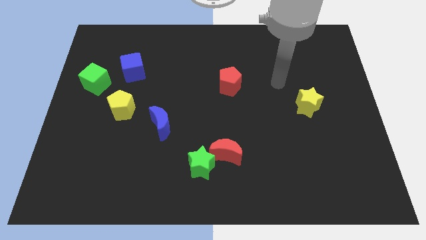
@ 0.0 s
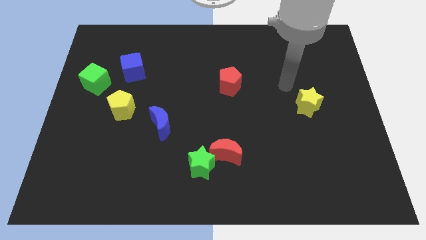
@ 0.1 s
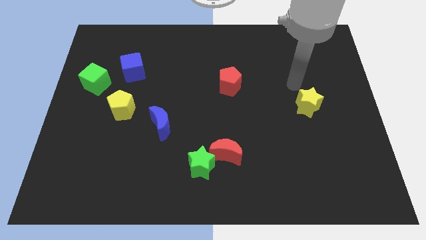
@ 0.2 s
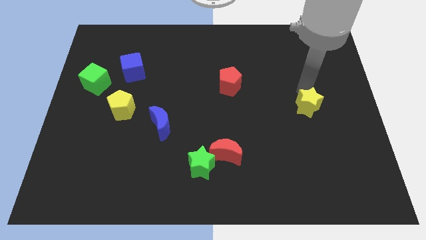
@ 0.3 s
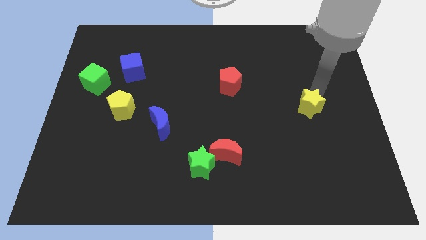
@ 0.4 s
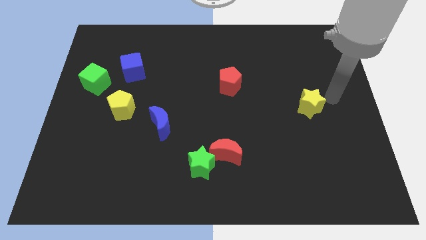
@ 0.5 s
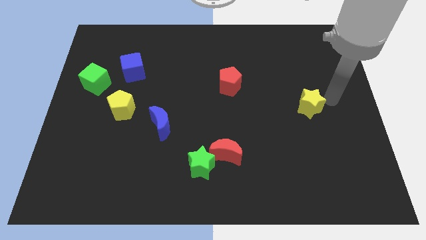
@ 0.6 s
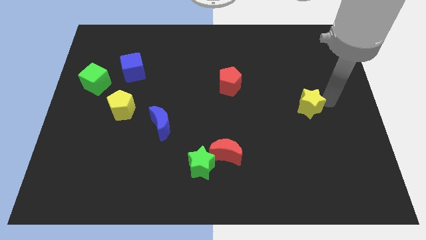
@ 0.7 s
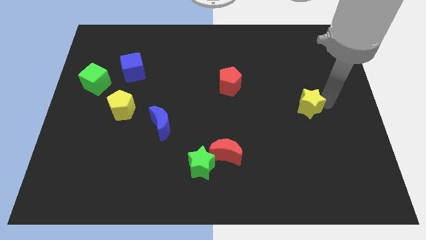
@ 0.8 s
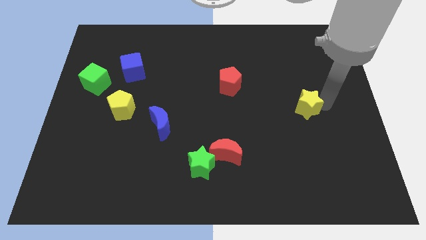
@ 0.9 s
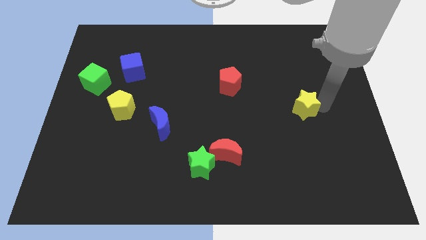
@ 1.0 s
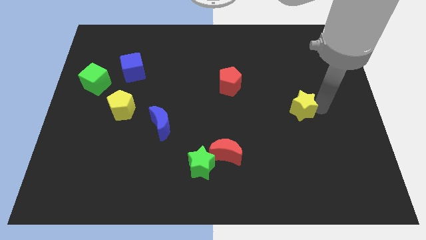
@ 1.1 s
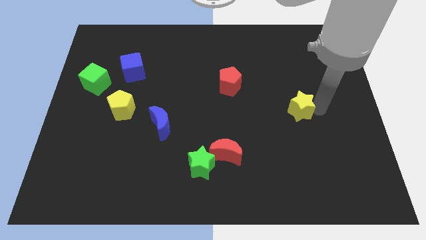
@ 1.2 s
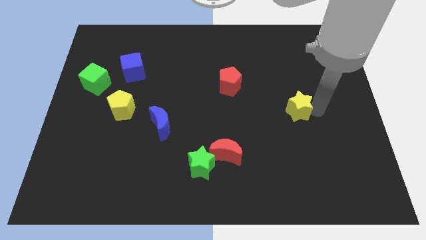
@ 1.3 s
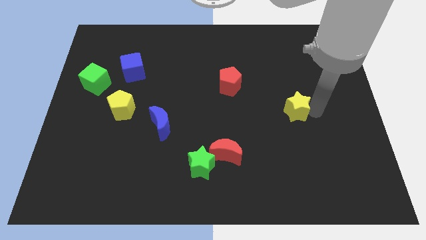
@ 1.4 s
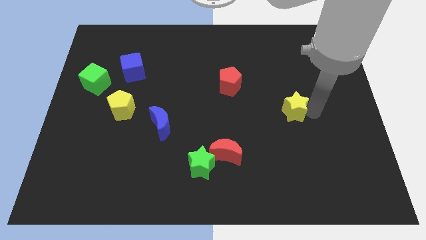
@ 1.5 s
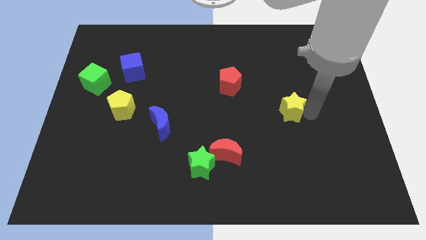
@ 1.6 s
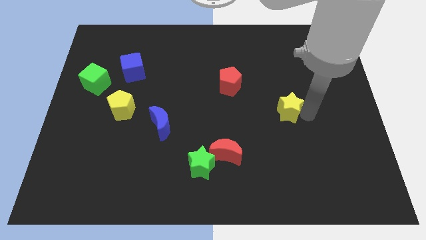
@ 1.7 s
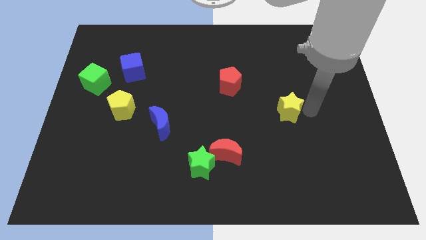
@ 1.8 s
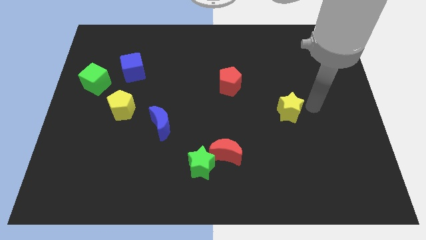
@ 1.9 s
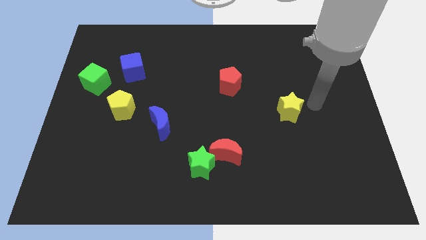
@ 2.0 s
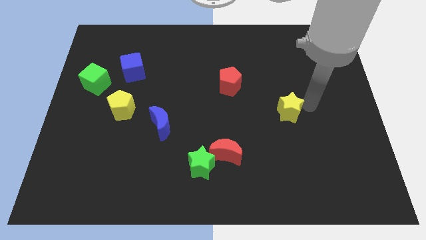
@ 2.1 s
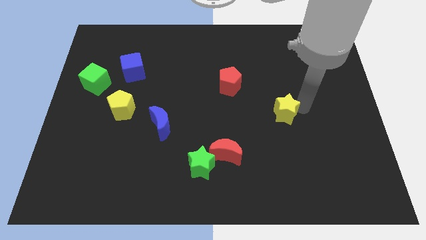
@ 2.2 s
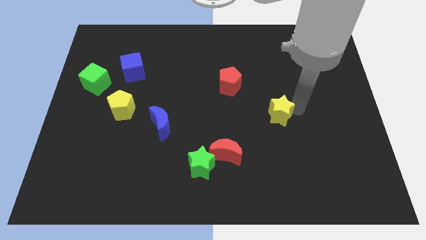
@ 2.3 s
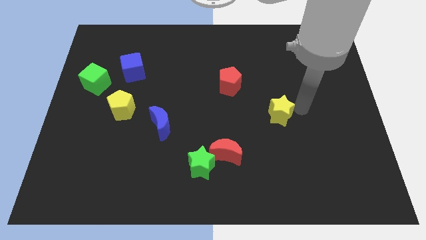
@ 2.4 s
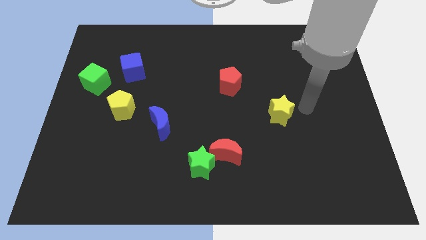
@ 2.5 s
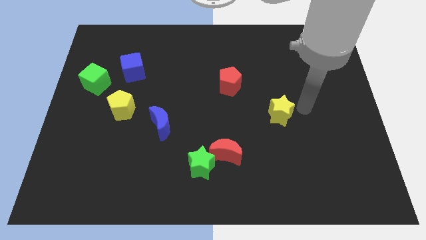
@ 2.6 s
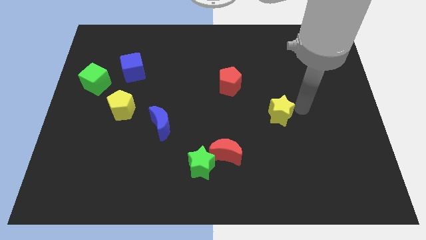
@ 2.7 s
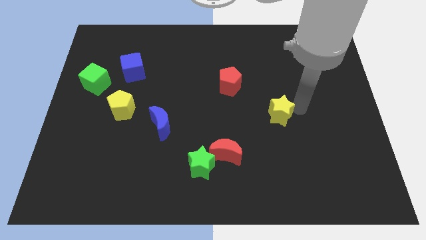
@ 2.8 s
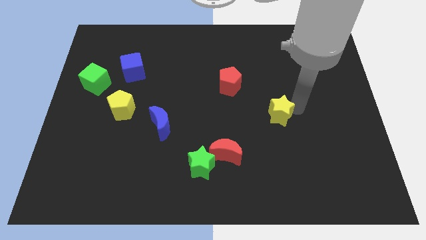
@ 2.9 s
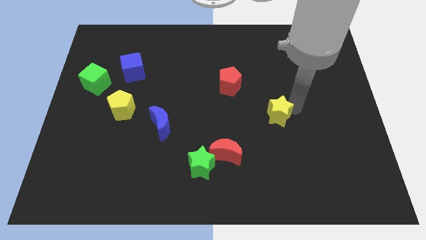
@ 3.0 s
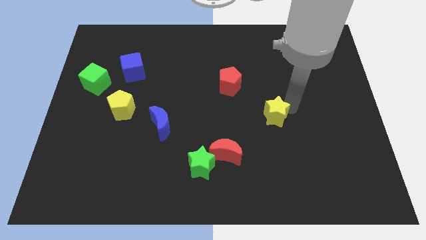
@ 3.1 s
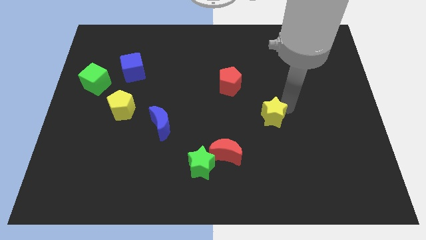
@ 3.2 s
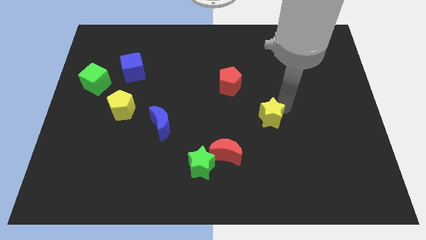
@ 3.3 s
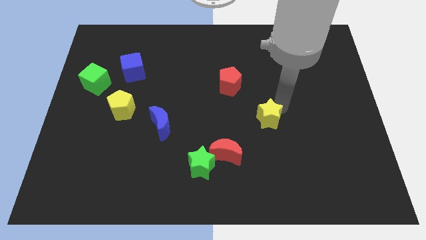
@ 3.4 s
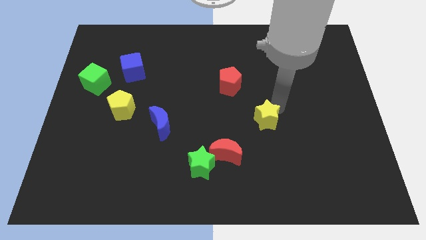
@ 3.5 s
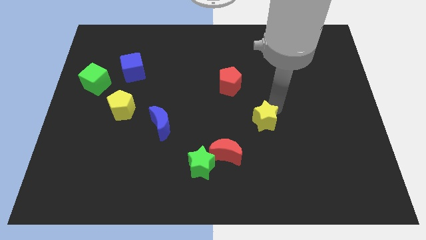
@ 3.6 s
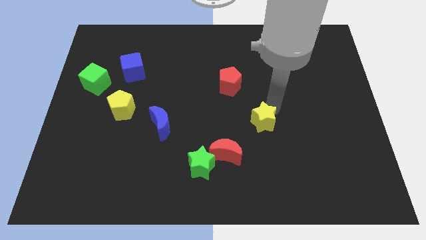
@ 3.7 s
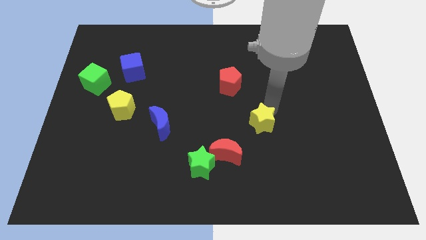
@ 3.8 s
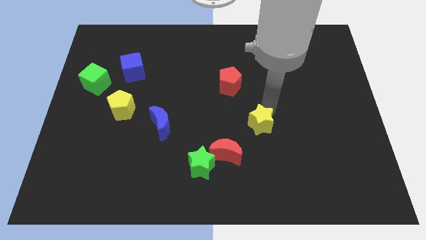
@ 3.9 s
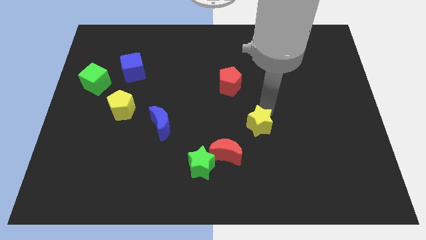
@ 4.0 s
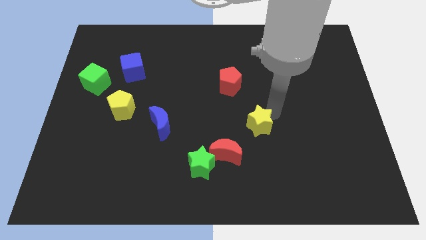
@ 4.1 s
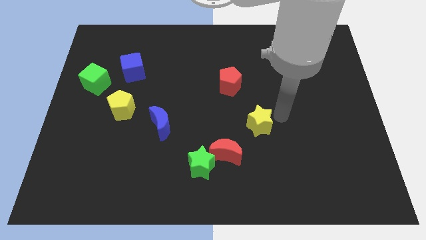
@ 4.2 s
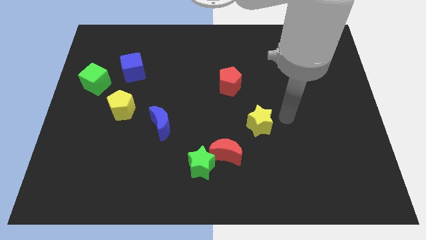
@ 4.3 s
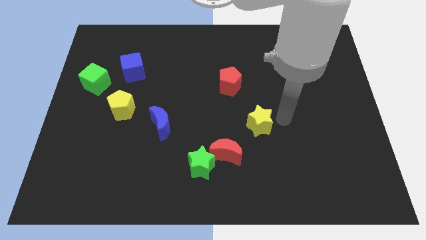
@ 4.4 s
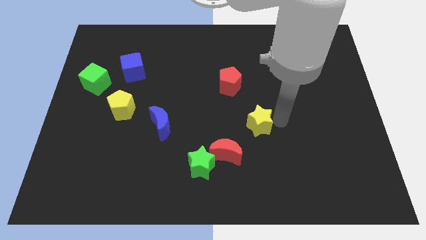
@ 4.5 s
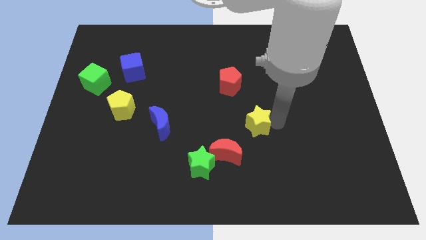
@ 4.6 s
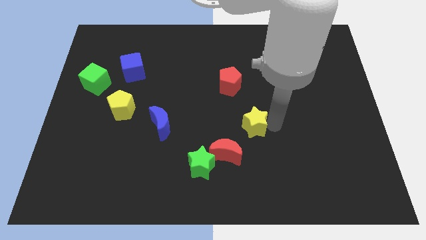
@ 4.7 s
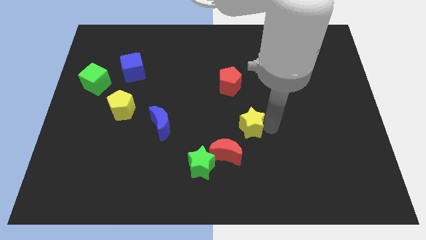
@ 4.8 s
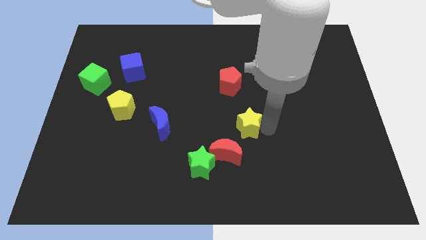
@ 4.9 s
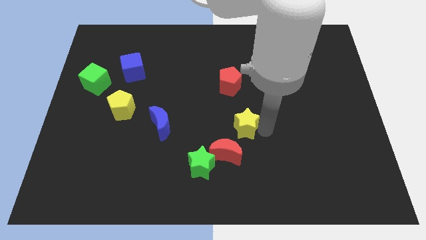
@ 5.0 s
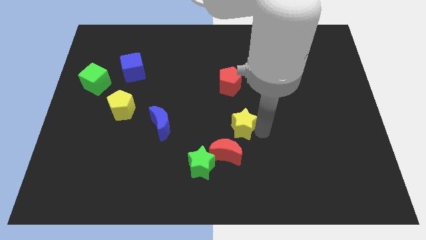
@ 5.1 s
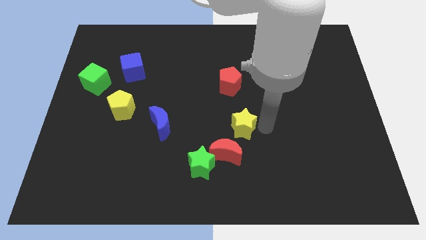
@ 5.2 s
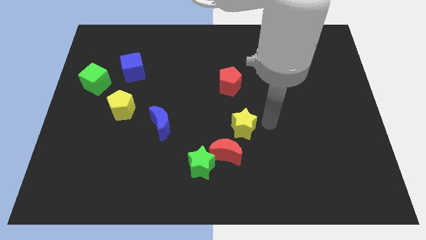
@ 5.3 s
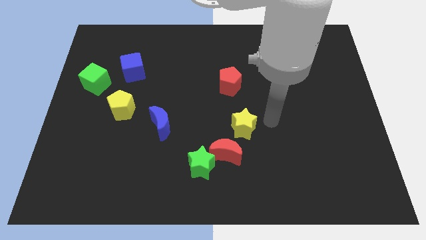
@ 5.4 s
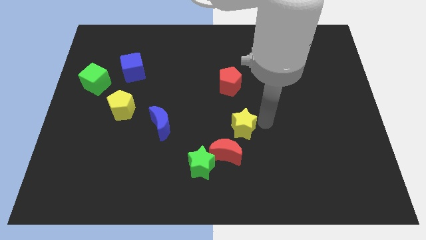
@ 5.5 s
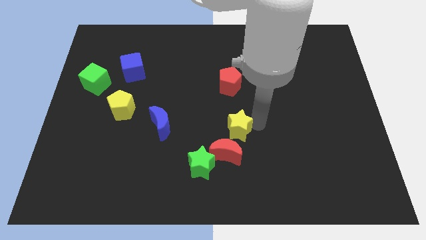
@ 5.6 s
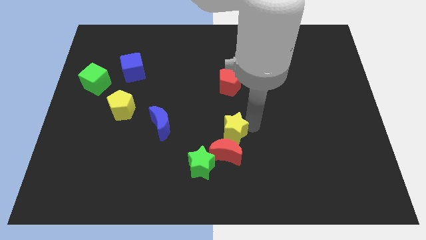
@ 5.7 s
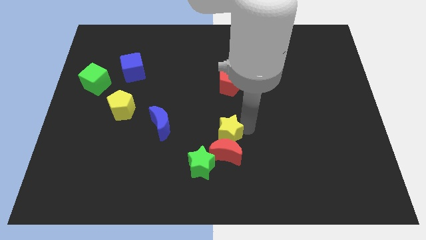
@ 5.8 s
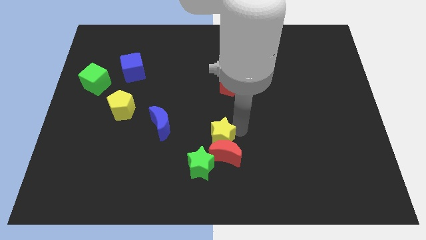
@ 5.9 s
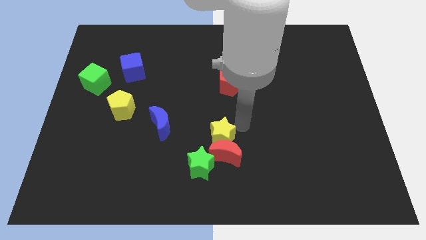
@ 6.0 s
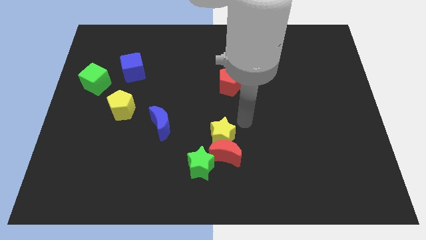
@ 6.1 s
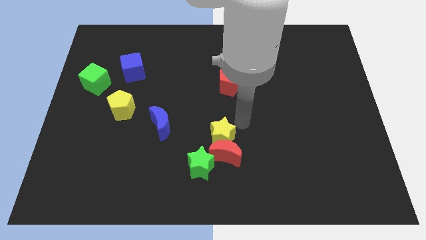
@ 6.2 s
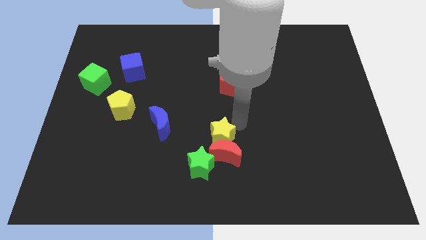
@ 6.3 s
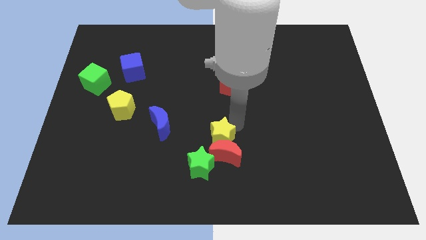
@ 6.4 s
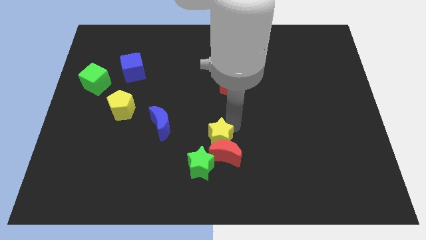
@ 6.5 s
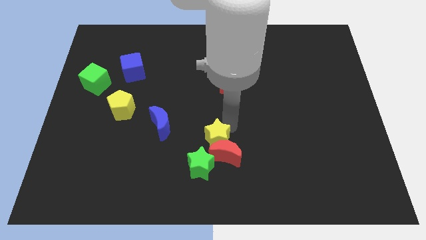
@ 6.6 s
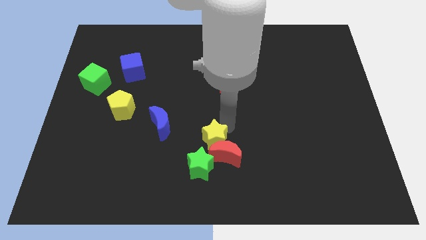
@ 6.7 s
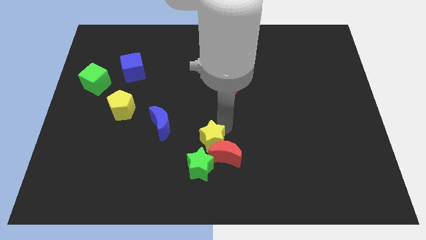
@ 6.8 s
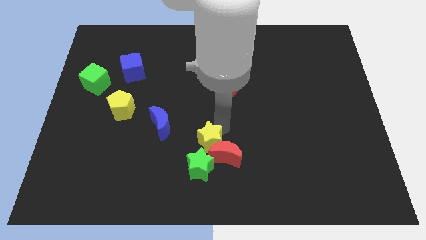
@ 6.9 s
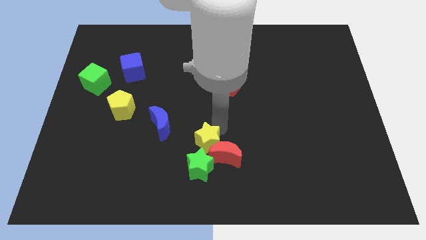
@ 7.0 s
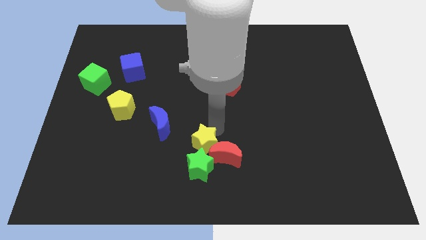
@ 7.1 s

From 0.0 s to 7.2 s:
slide the yellow star close to the green star

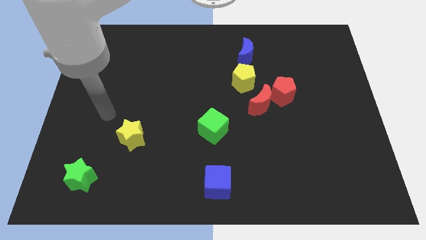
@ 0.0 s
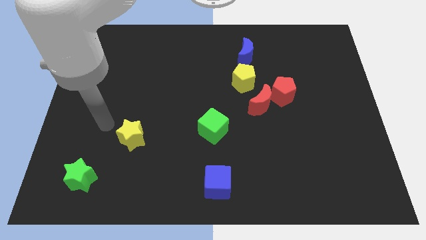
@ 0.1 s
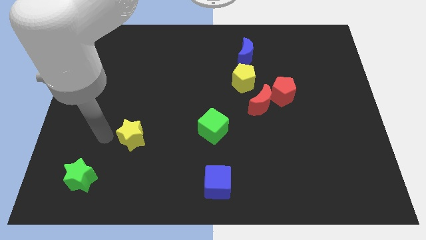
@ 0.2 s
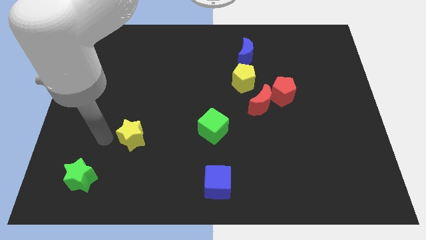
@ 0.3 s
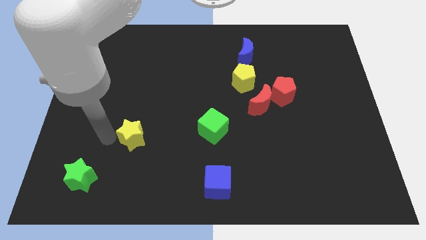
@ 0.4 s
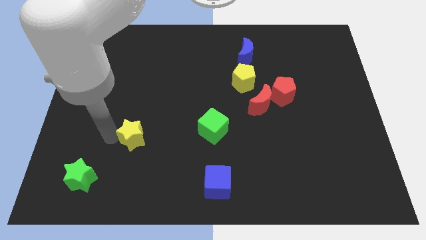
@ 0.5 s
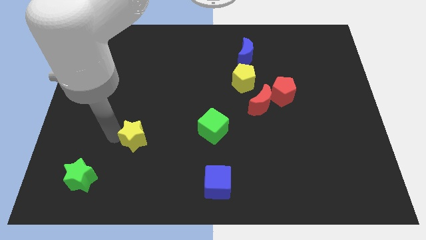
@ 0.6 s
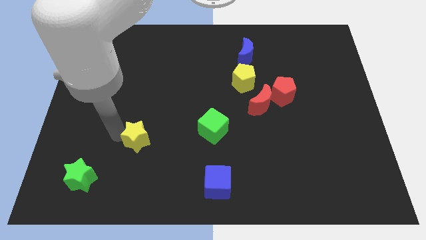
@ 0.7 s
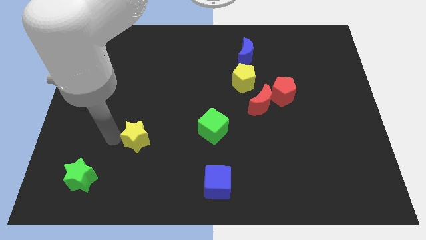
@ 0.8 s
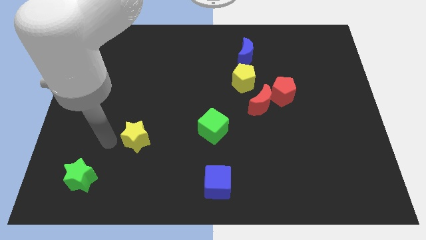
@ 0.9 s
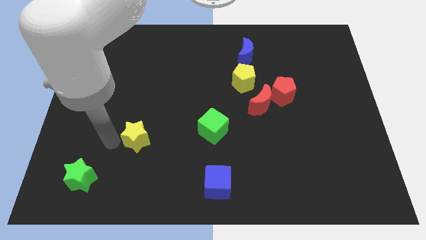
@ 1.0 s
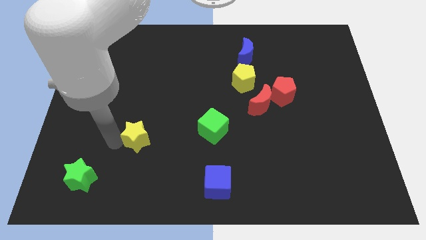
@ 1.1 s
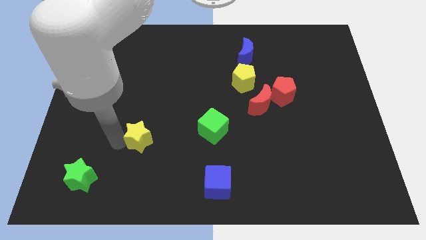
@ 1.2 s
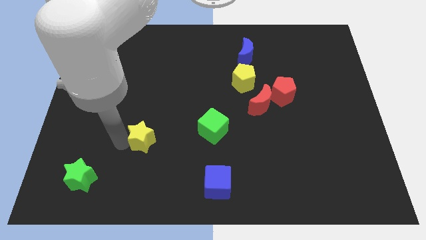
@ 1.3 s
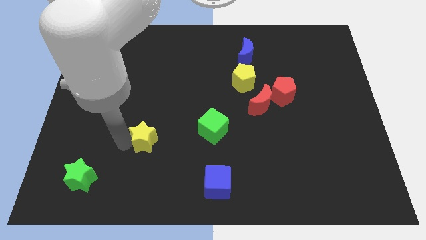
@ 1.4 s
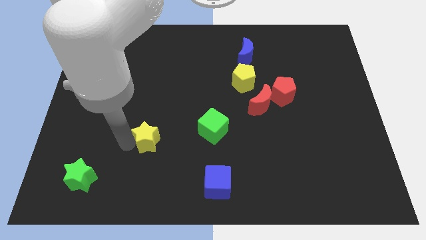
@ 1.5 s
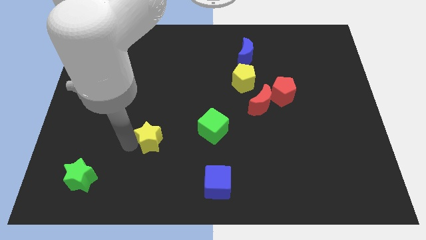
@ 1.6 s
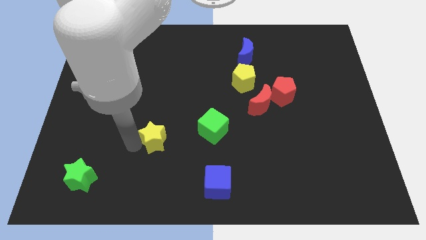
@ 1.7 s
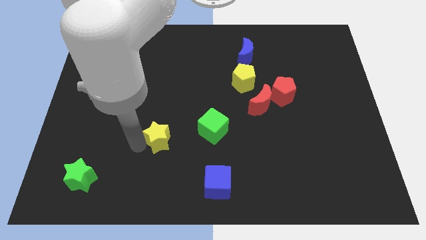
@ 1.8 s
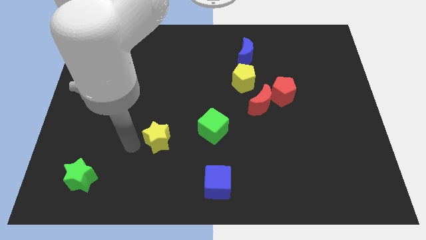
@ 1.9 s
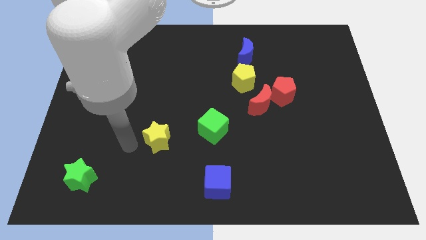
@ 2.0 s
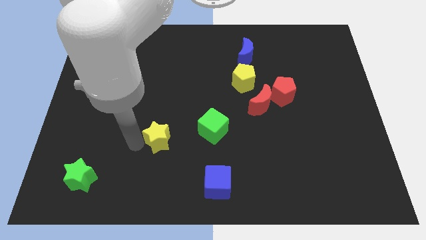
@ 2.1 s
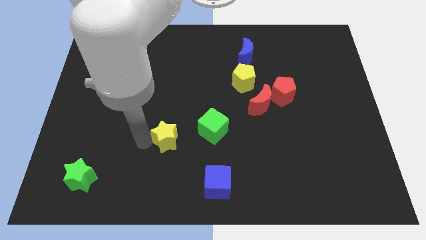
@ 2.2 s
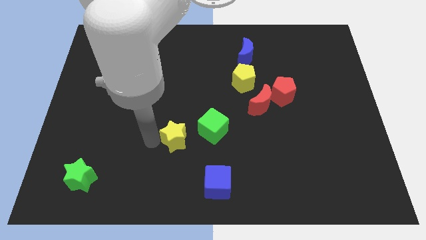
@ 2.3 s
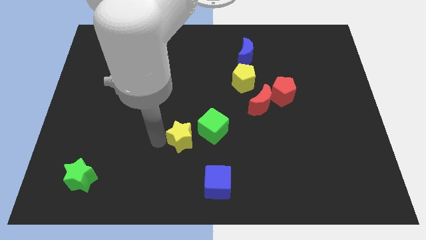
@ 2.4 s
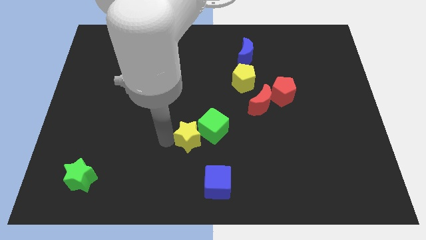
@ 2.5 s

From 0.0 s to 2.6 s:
push the yellow star to the green cube
